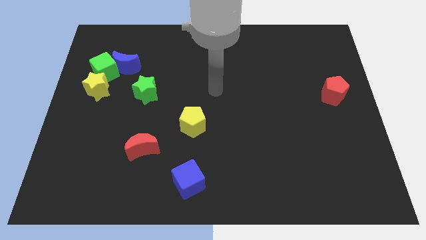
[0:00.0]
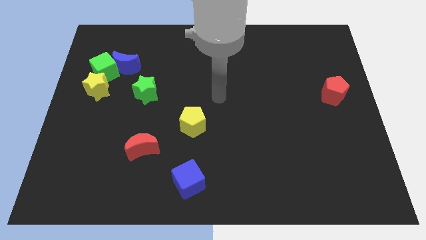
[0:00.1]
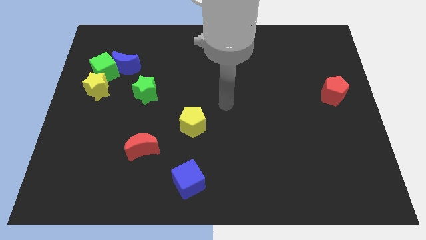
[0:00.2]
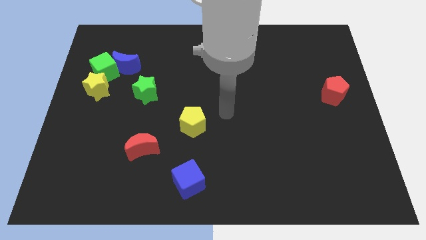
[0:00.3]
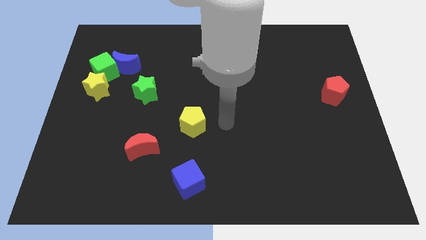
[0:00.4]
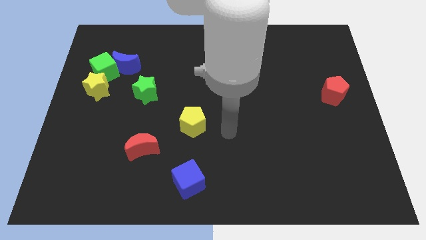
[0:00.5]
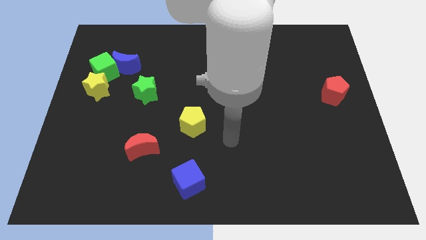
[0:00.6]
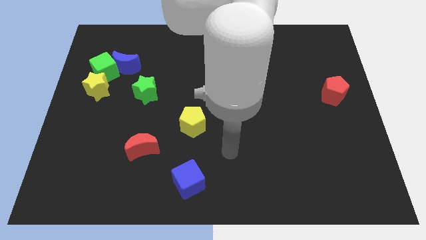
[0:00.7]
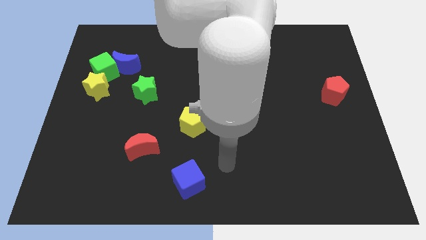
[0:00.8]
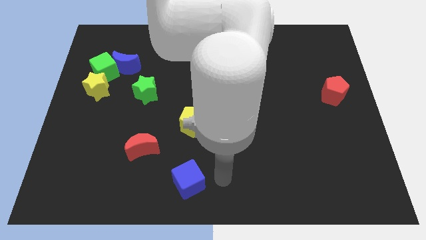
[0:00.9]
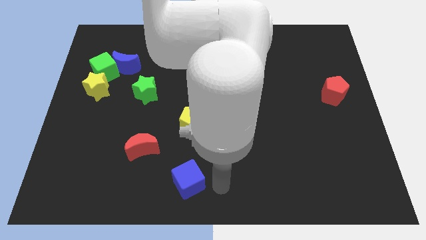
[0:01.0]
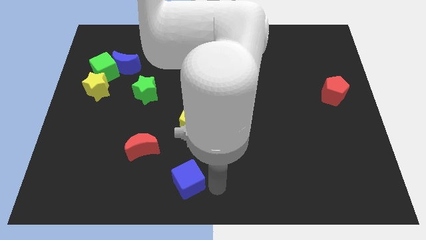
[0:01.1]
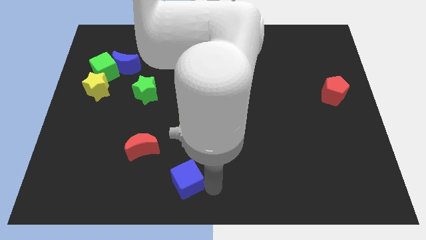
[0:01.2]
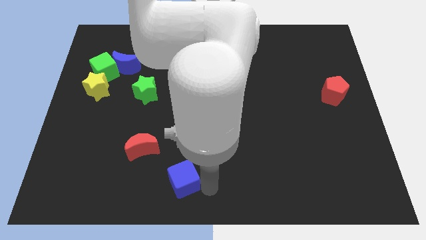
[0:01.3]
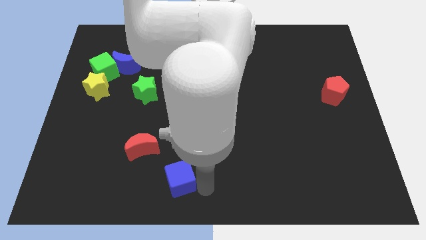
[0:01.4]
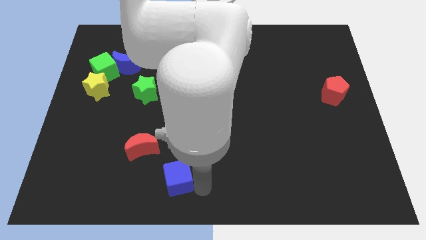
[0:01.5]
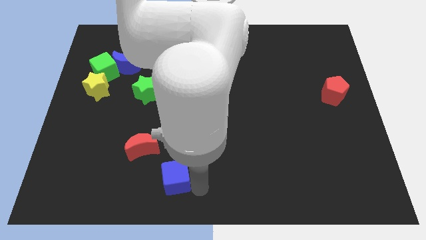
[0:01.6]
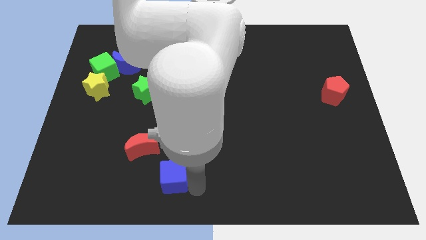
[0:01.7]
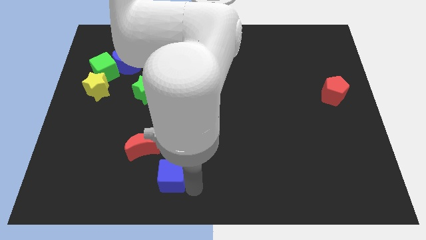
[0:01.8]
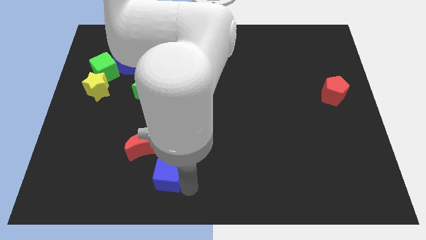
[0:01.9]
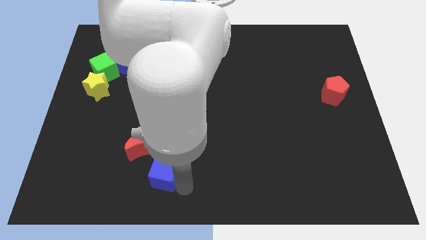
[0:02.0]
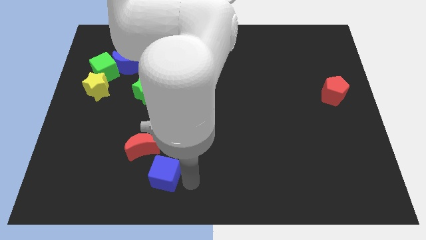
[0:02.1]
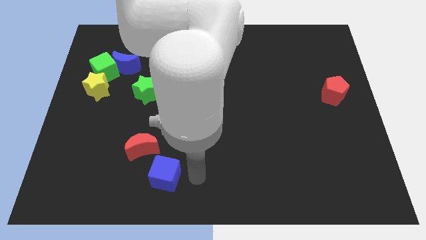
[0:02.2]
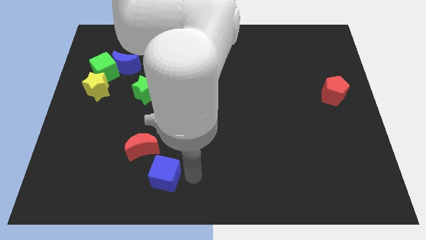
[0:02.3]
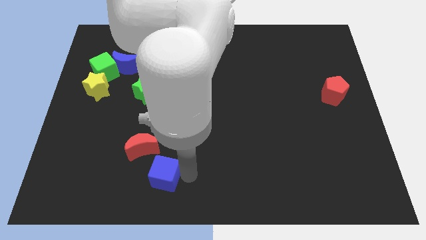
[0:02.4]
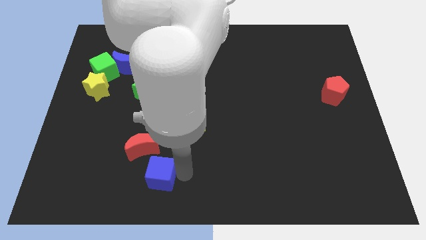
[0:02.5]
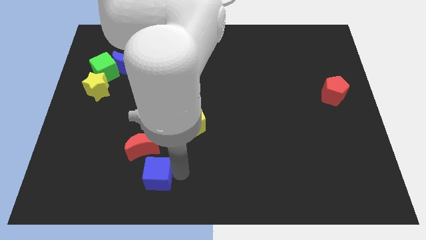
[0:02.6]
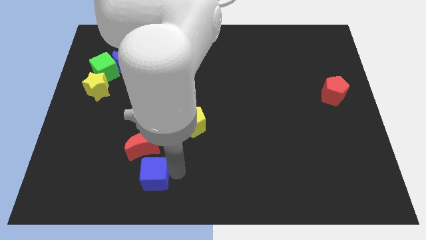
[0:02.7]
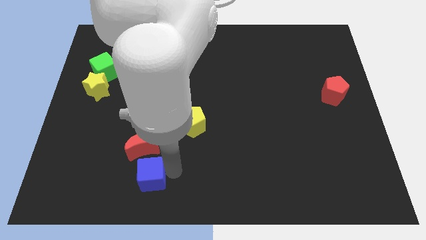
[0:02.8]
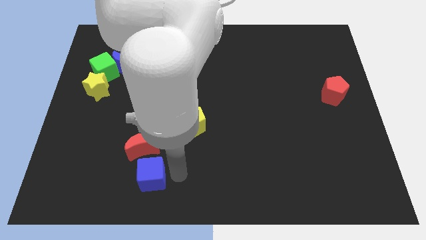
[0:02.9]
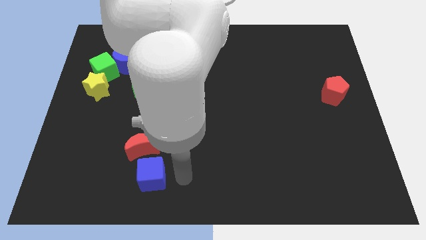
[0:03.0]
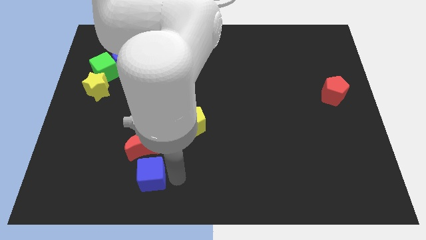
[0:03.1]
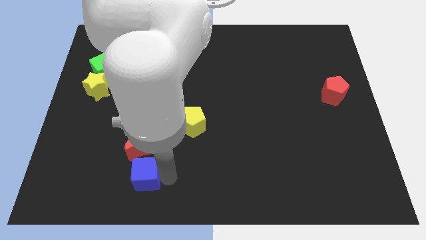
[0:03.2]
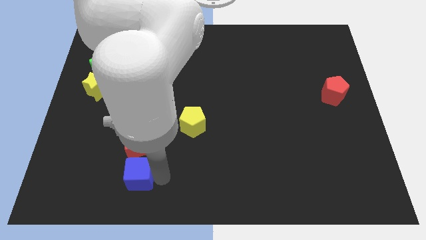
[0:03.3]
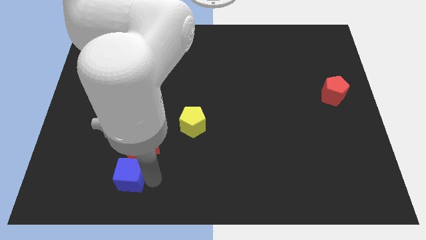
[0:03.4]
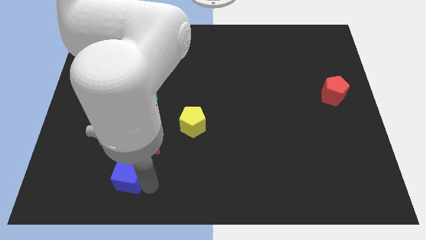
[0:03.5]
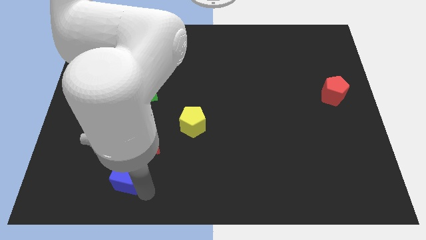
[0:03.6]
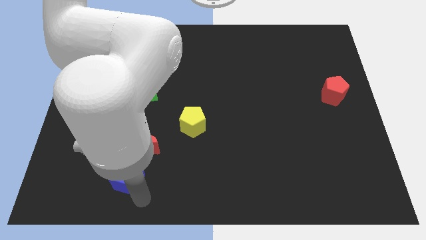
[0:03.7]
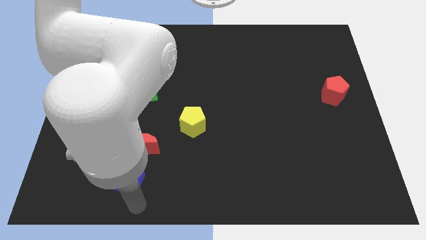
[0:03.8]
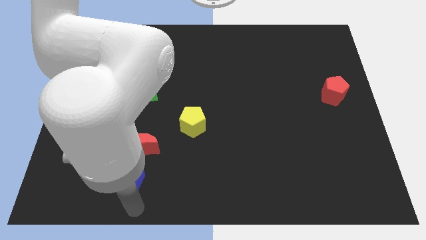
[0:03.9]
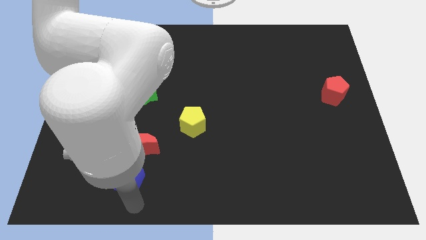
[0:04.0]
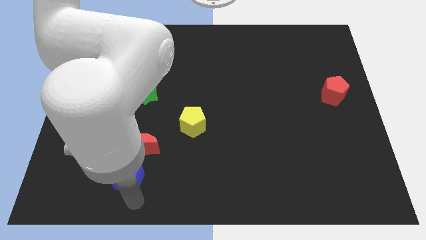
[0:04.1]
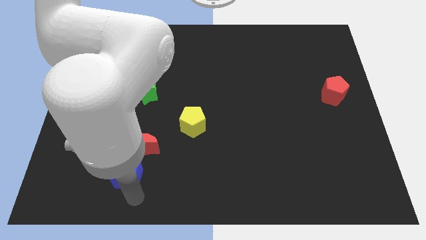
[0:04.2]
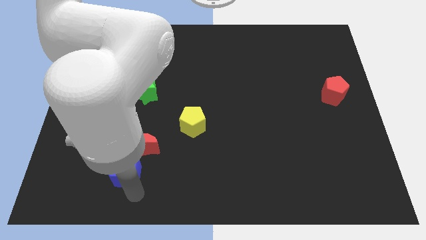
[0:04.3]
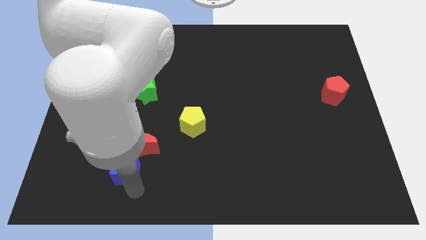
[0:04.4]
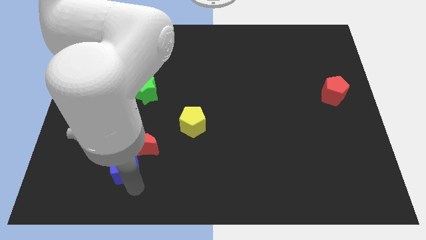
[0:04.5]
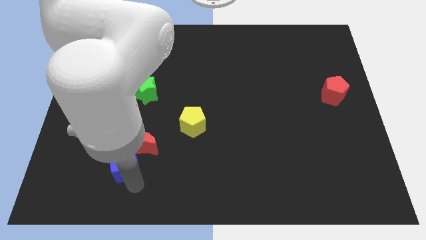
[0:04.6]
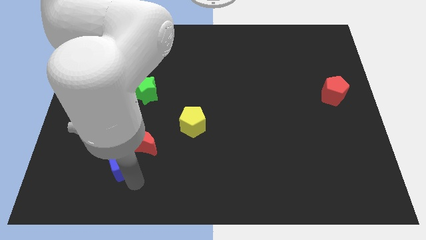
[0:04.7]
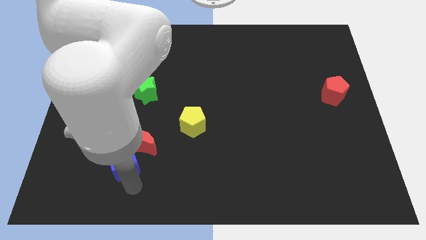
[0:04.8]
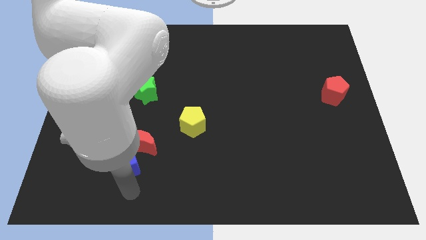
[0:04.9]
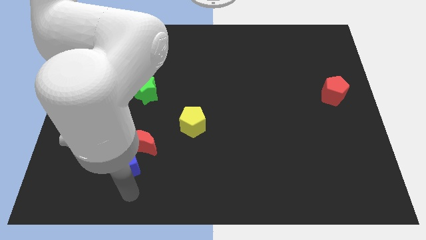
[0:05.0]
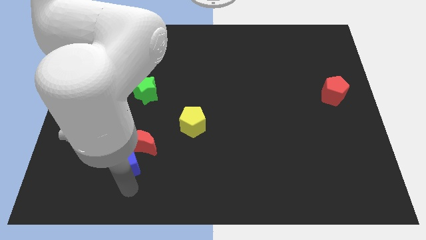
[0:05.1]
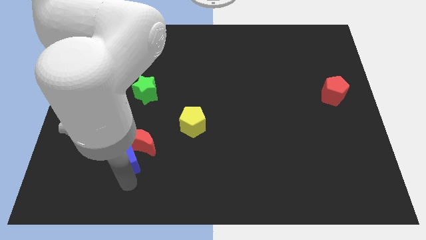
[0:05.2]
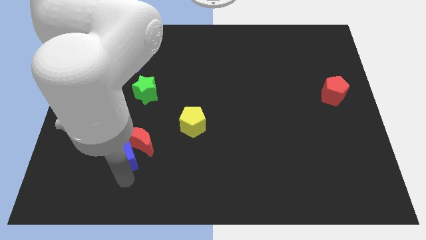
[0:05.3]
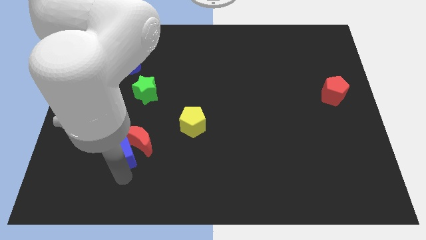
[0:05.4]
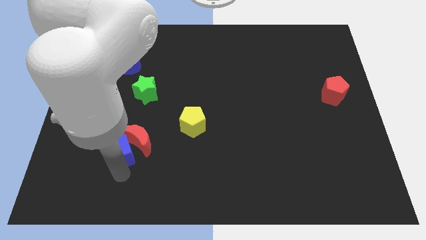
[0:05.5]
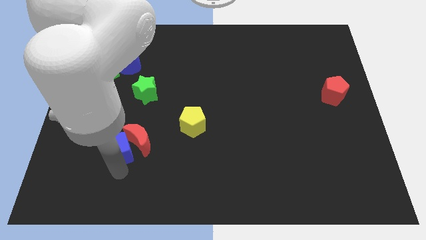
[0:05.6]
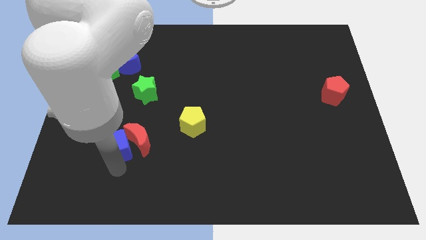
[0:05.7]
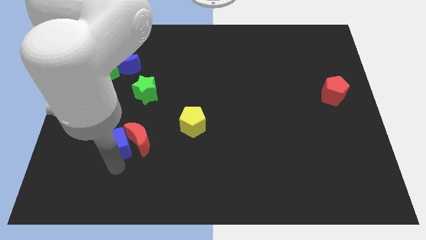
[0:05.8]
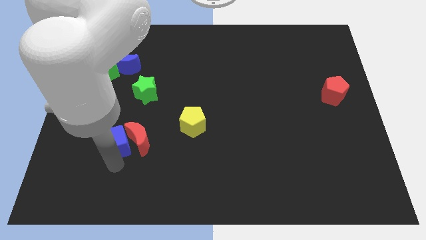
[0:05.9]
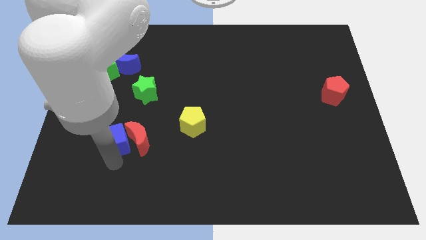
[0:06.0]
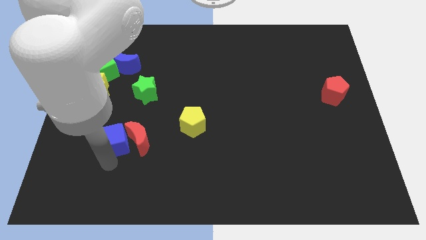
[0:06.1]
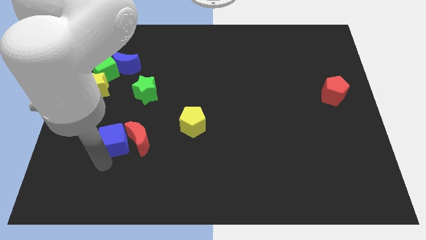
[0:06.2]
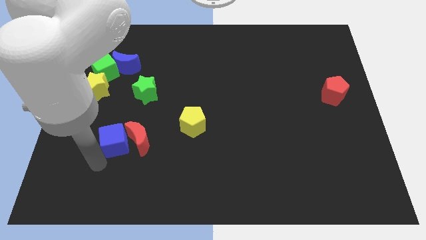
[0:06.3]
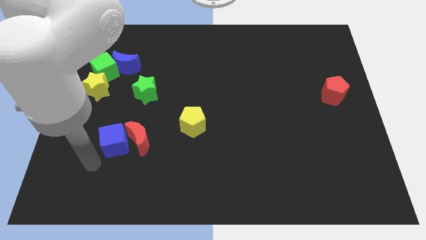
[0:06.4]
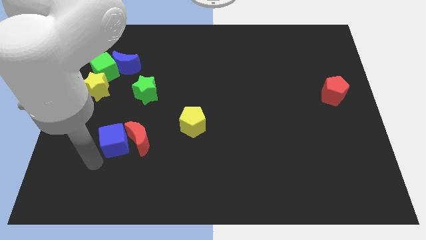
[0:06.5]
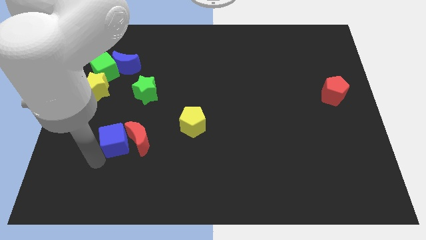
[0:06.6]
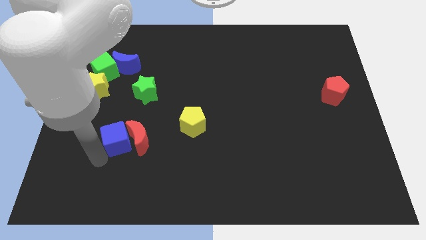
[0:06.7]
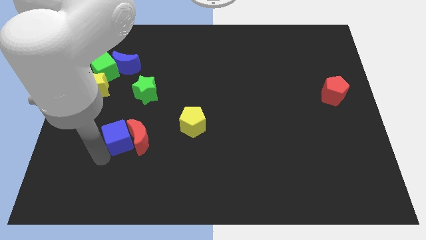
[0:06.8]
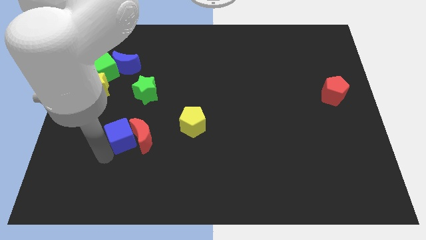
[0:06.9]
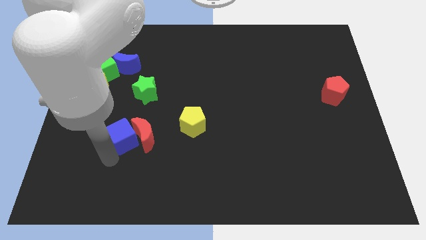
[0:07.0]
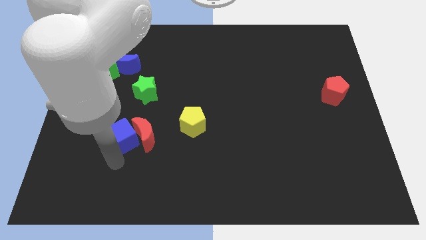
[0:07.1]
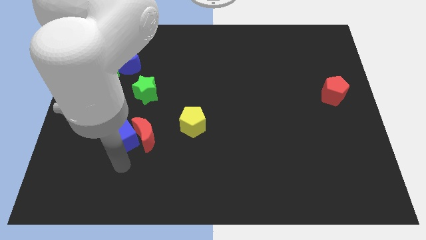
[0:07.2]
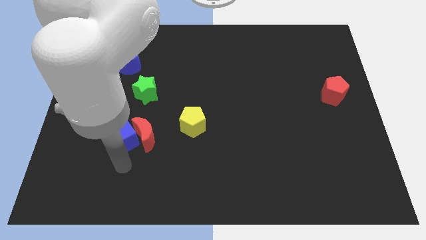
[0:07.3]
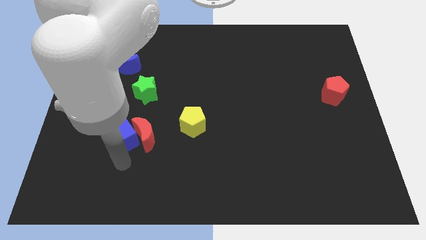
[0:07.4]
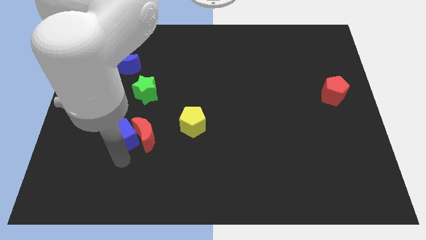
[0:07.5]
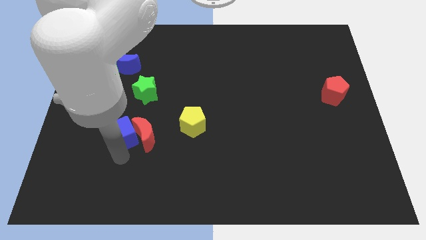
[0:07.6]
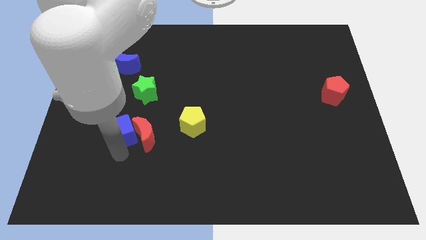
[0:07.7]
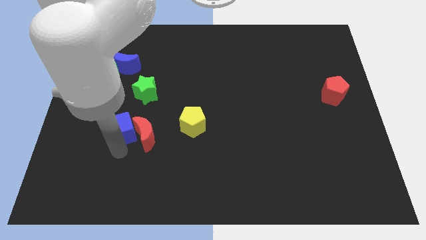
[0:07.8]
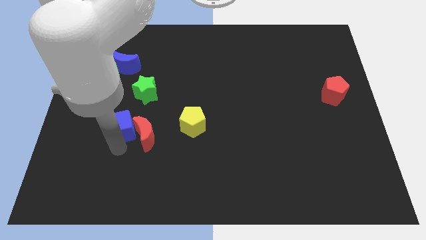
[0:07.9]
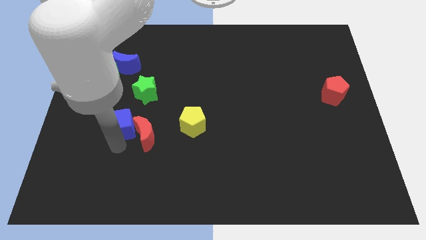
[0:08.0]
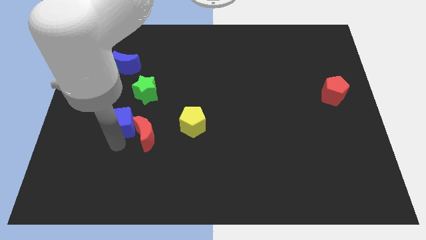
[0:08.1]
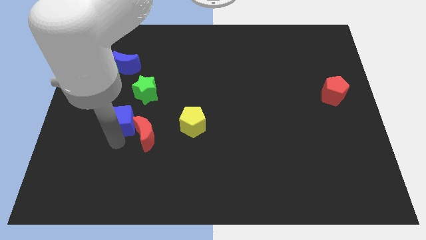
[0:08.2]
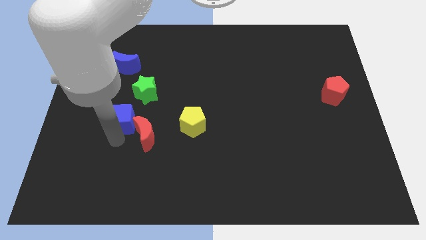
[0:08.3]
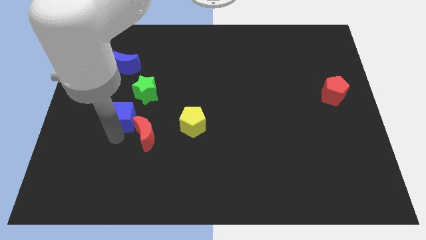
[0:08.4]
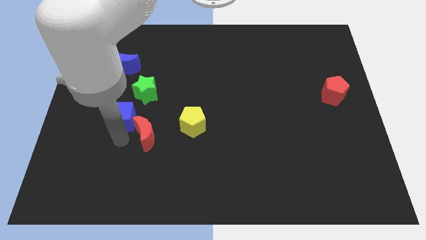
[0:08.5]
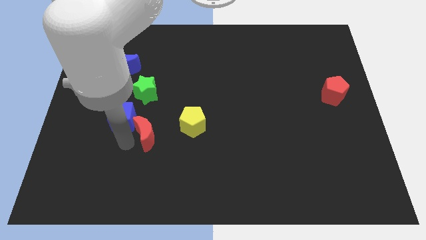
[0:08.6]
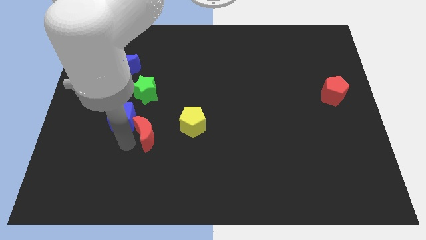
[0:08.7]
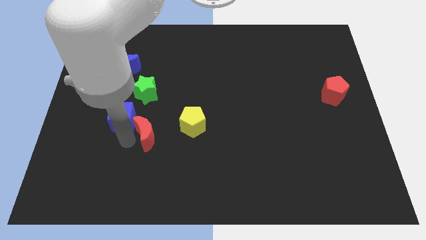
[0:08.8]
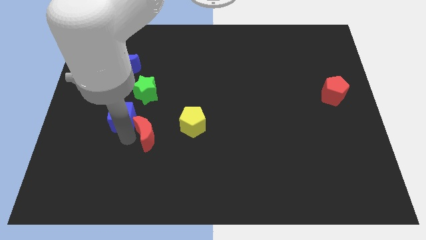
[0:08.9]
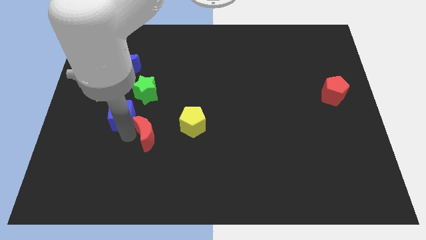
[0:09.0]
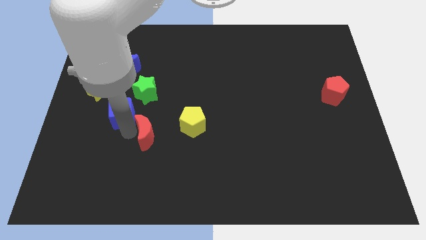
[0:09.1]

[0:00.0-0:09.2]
push the blue cube to the bottom side of the blue moon
